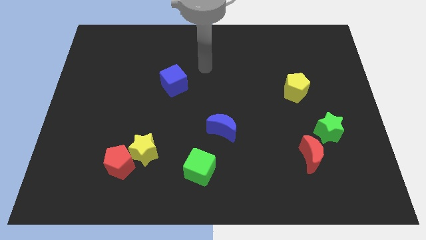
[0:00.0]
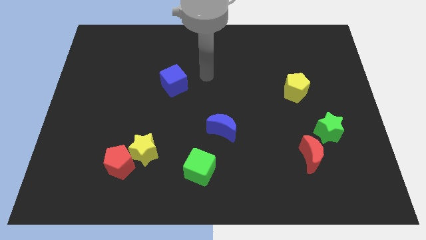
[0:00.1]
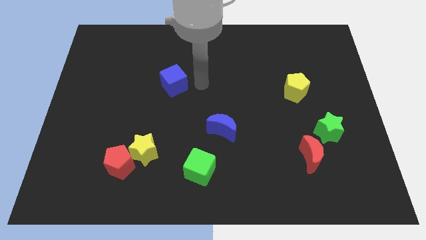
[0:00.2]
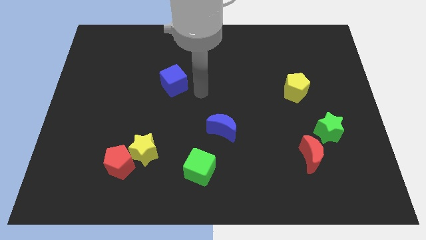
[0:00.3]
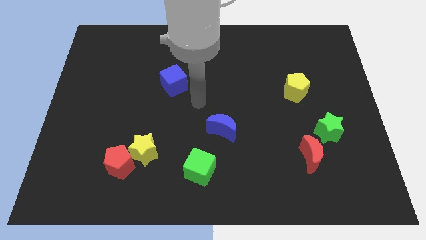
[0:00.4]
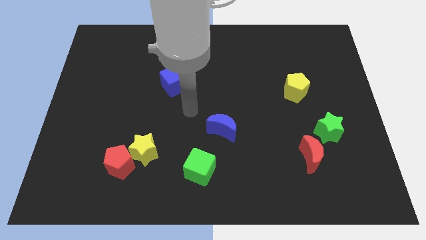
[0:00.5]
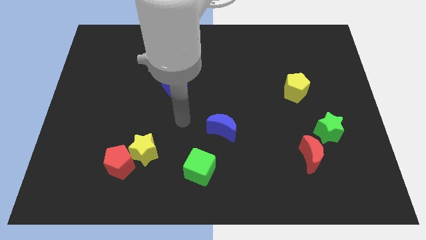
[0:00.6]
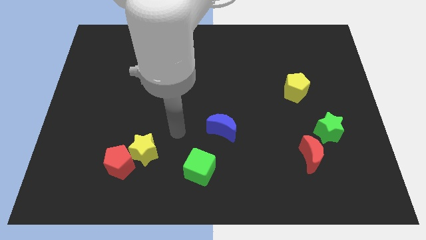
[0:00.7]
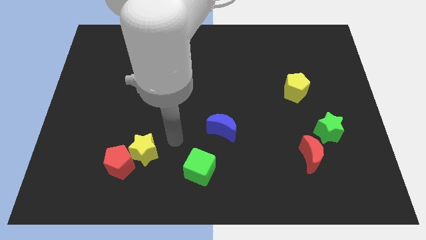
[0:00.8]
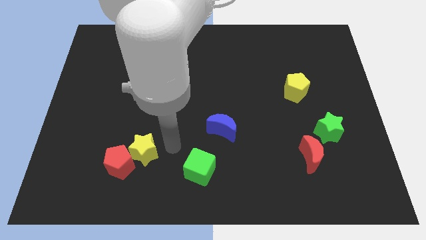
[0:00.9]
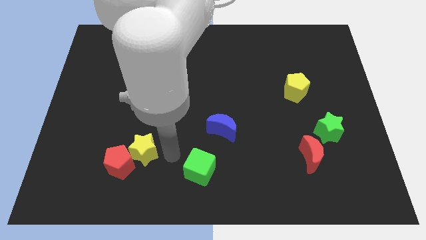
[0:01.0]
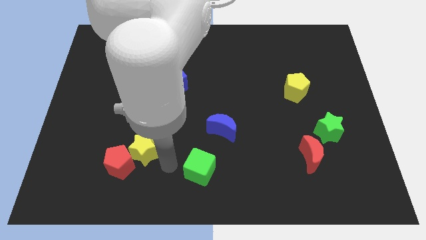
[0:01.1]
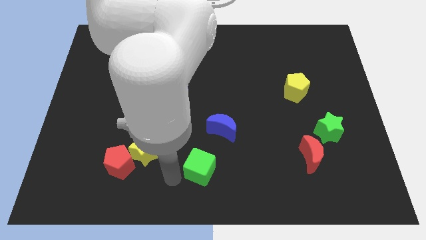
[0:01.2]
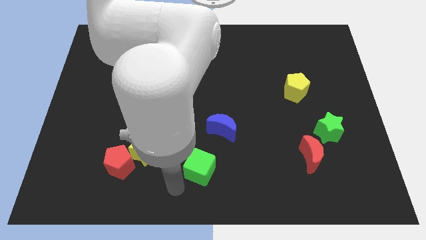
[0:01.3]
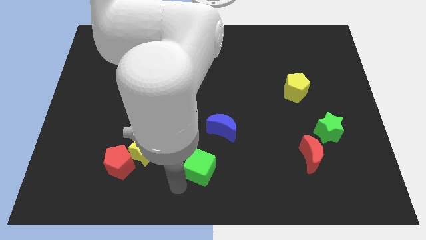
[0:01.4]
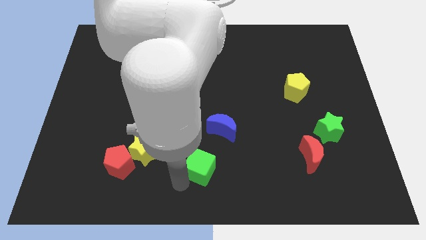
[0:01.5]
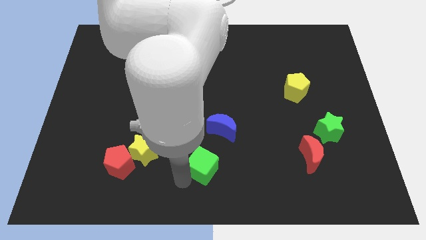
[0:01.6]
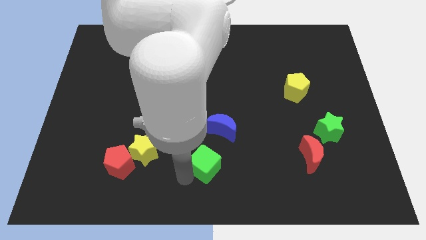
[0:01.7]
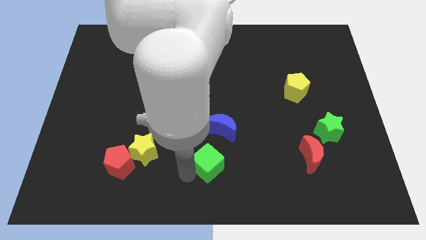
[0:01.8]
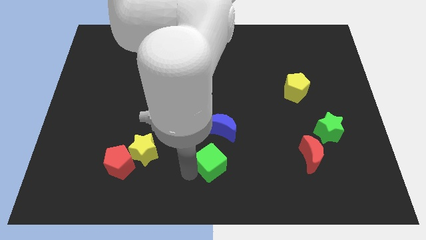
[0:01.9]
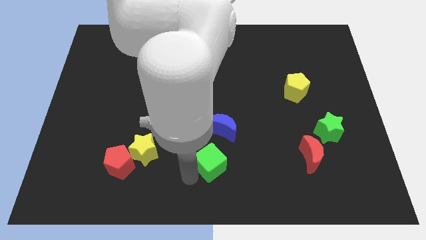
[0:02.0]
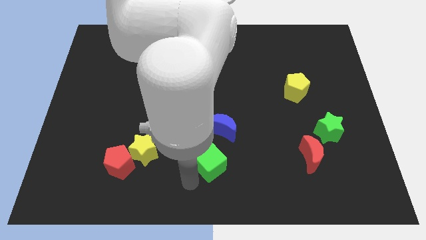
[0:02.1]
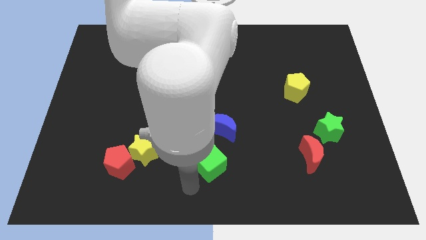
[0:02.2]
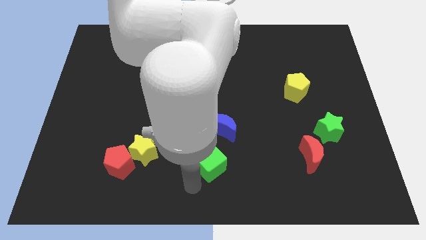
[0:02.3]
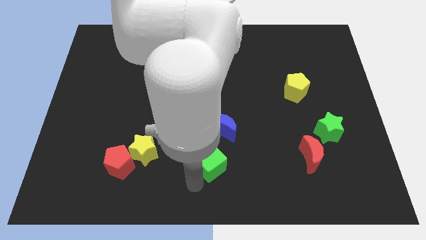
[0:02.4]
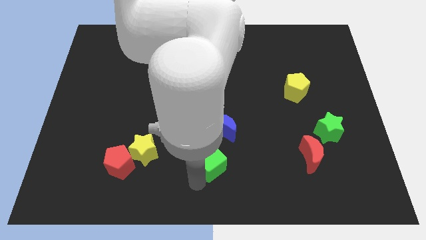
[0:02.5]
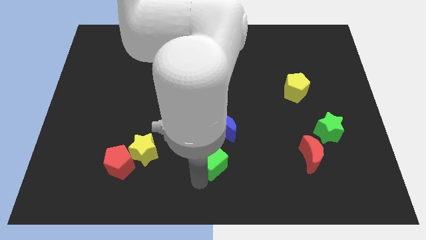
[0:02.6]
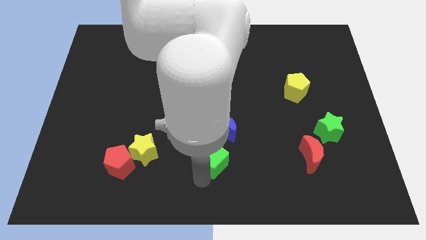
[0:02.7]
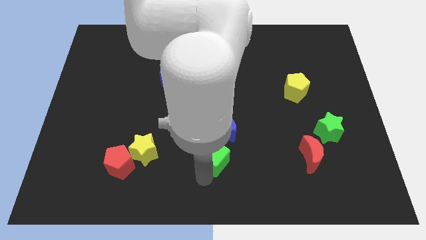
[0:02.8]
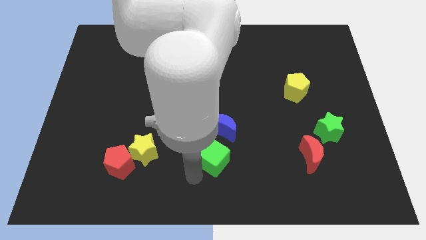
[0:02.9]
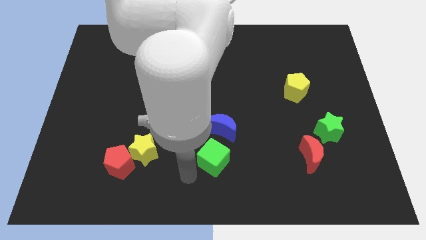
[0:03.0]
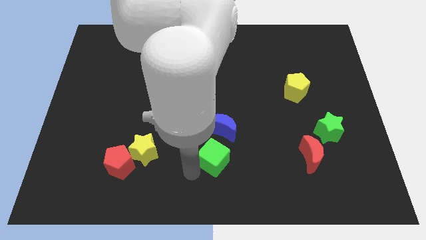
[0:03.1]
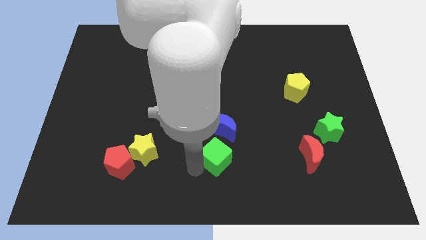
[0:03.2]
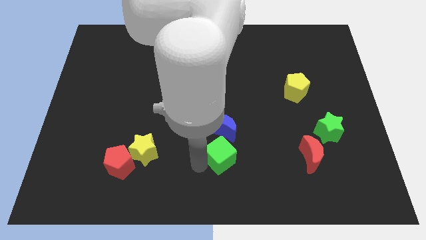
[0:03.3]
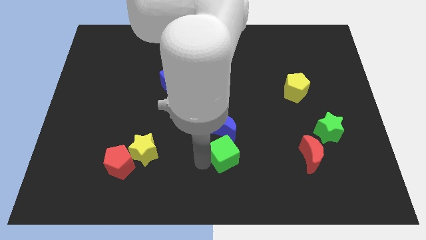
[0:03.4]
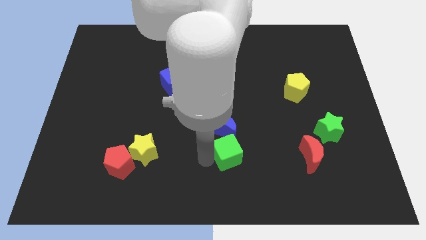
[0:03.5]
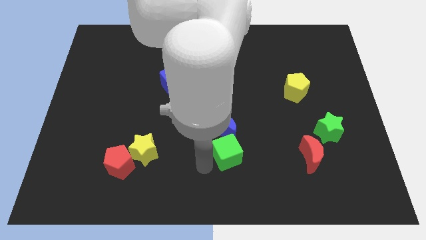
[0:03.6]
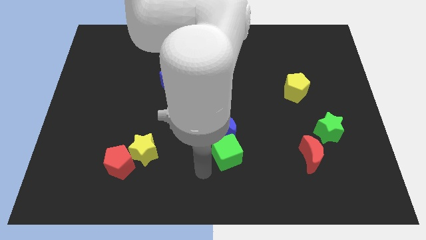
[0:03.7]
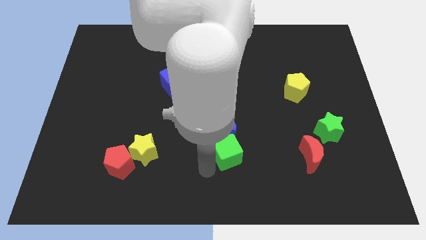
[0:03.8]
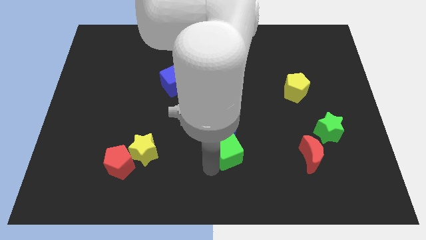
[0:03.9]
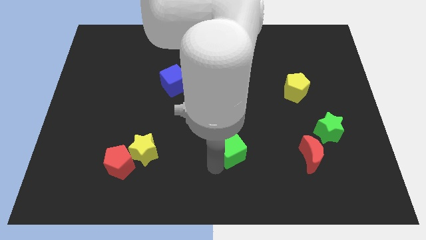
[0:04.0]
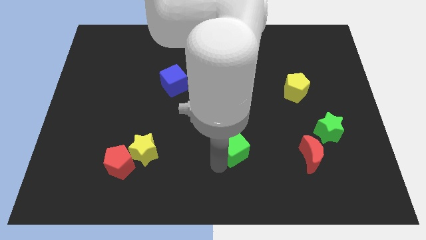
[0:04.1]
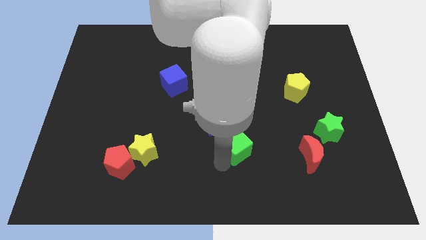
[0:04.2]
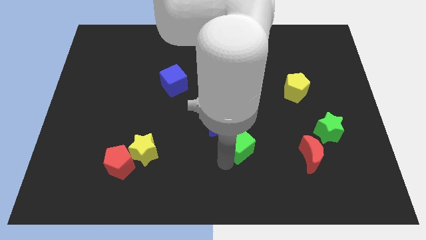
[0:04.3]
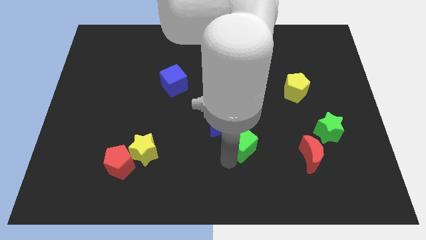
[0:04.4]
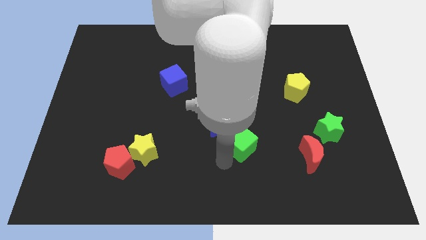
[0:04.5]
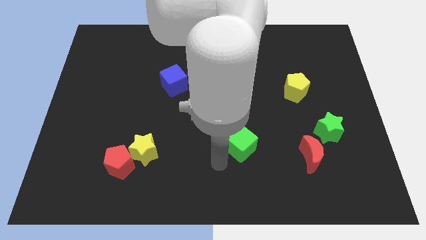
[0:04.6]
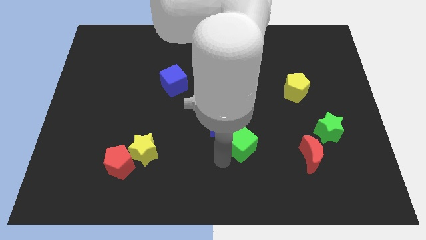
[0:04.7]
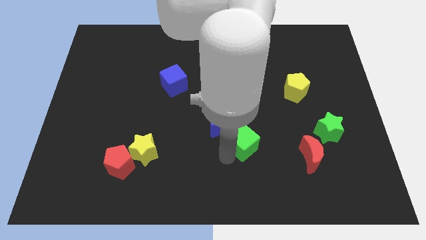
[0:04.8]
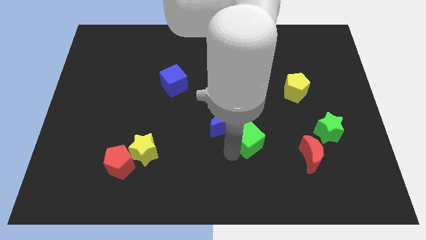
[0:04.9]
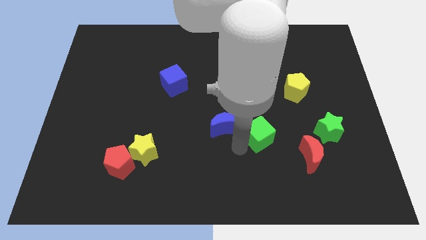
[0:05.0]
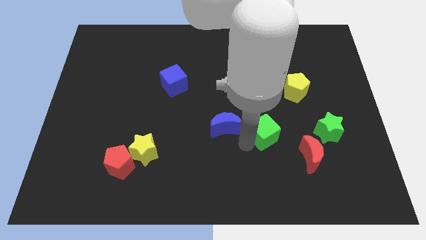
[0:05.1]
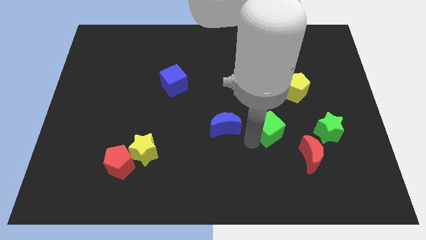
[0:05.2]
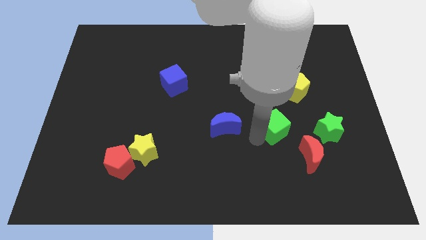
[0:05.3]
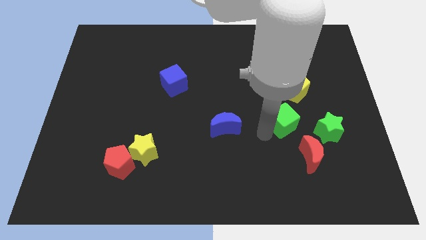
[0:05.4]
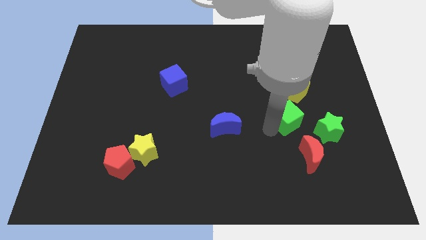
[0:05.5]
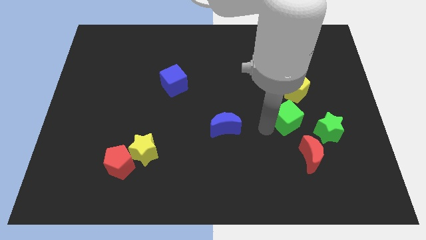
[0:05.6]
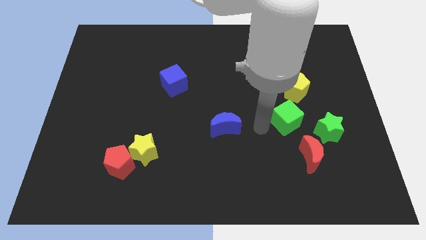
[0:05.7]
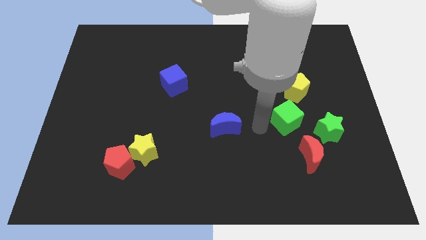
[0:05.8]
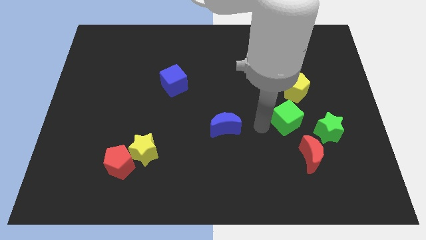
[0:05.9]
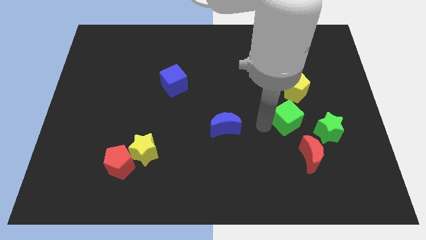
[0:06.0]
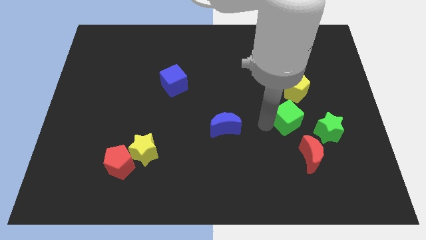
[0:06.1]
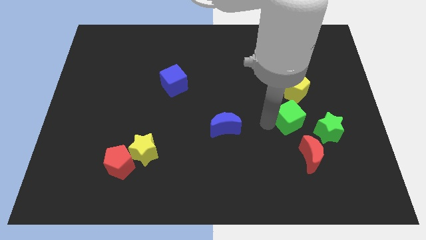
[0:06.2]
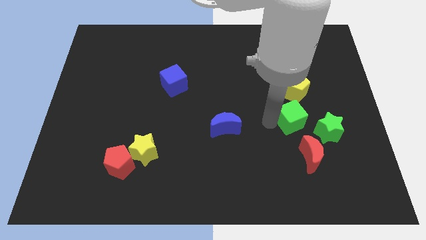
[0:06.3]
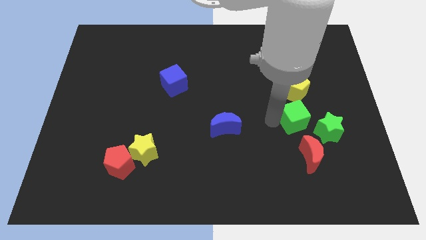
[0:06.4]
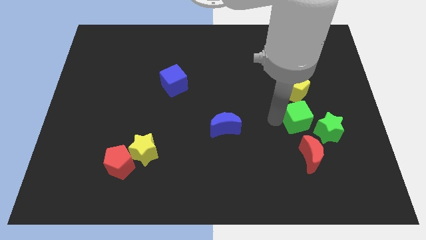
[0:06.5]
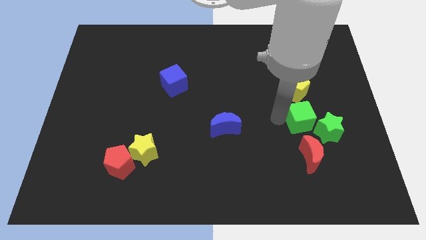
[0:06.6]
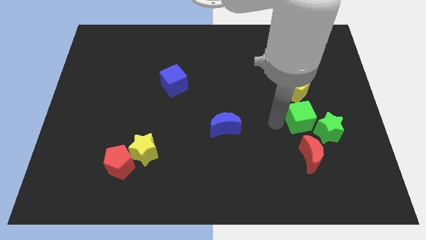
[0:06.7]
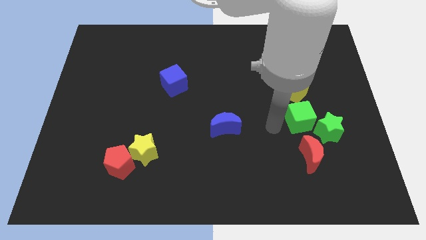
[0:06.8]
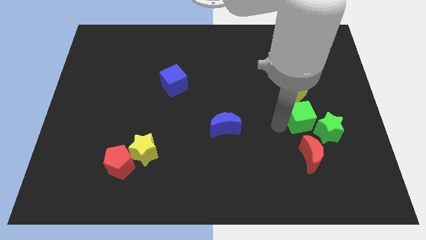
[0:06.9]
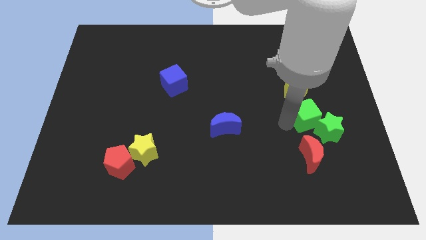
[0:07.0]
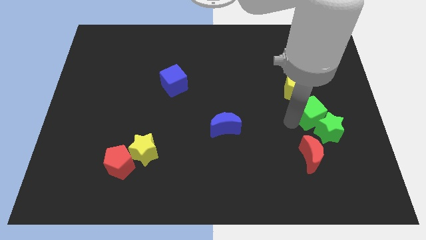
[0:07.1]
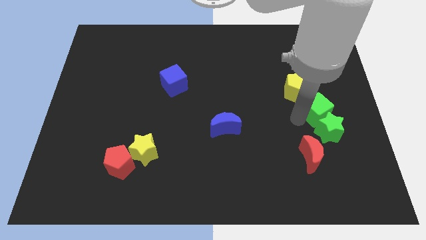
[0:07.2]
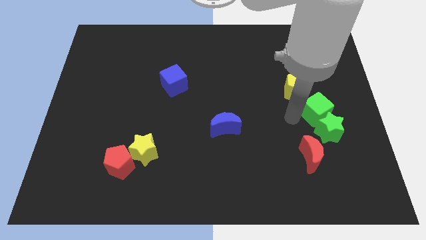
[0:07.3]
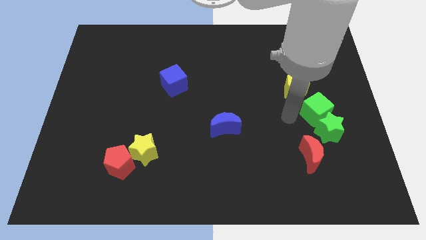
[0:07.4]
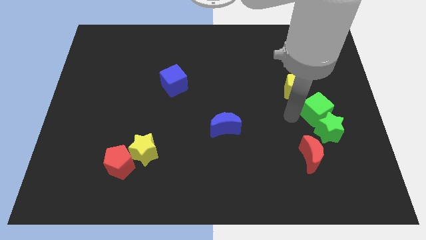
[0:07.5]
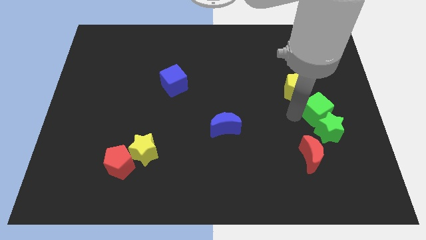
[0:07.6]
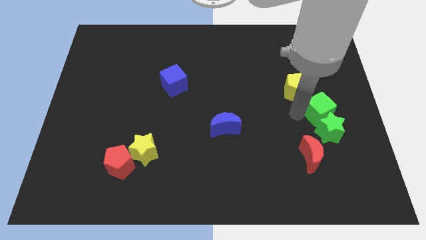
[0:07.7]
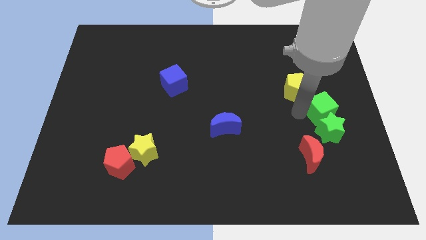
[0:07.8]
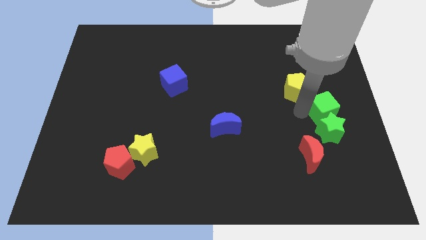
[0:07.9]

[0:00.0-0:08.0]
slide the green cube to the center right
